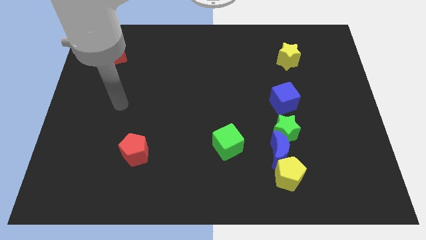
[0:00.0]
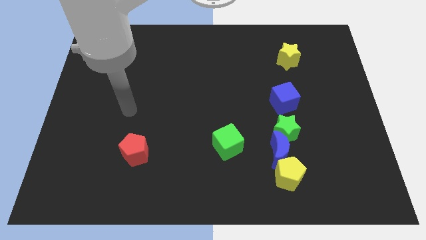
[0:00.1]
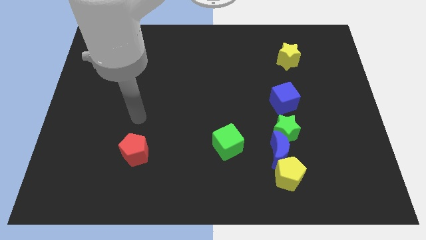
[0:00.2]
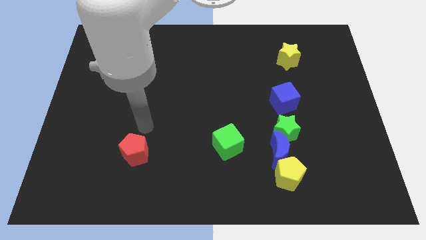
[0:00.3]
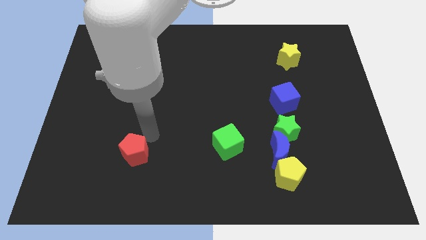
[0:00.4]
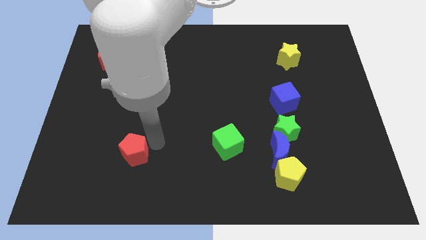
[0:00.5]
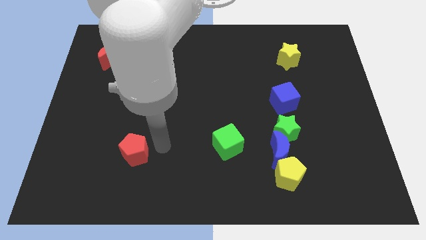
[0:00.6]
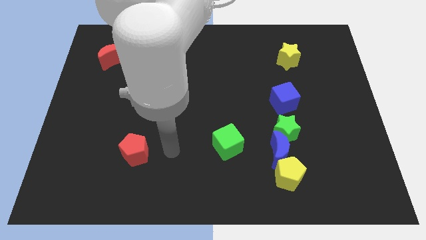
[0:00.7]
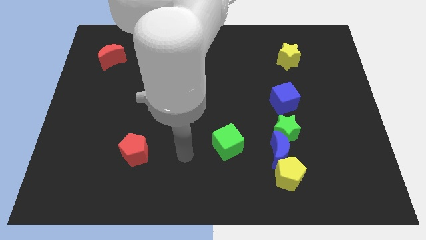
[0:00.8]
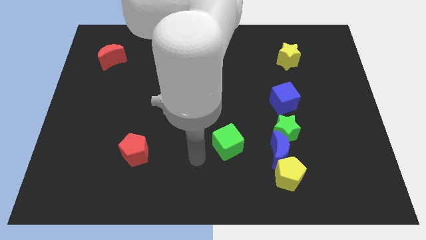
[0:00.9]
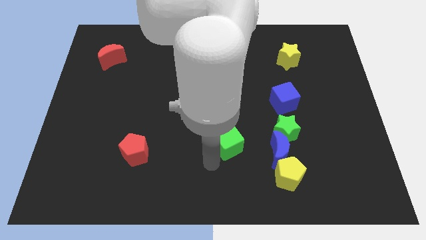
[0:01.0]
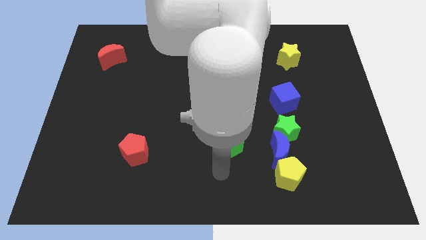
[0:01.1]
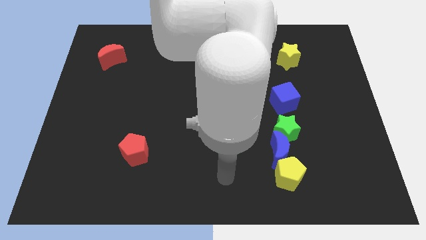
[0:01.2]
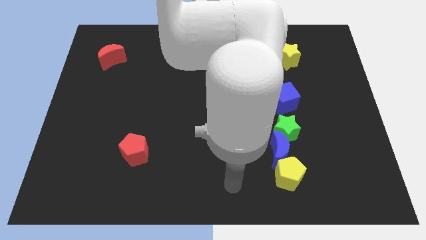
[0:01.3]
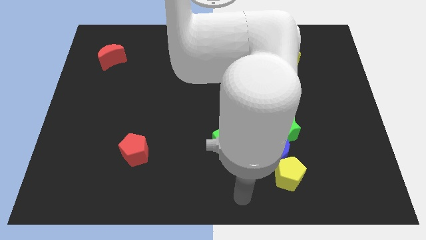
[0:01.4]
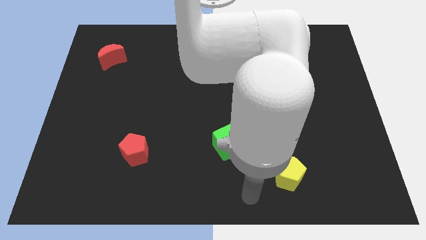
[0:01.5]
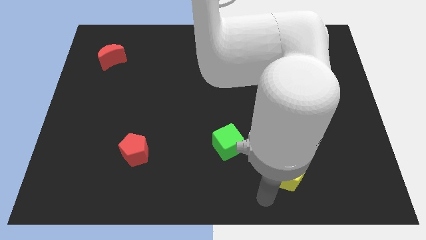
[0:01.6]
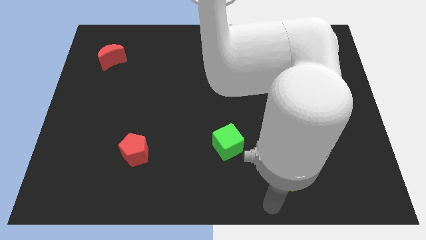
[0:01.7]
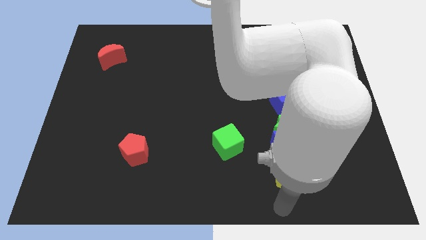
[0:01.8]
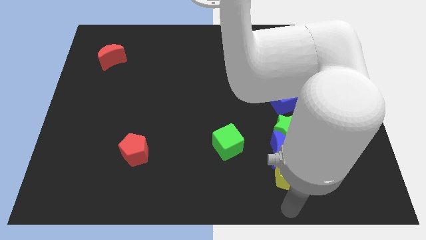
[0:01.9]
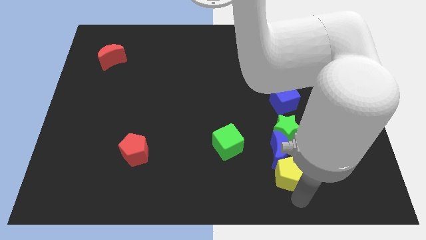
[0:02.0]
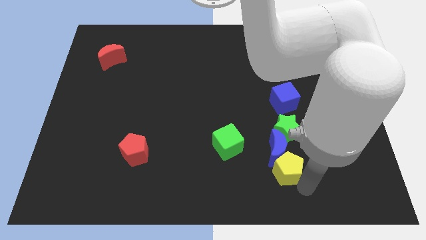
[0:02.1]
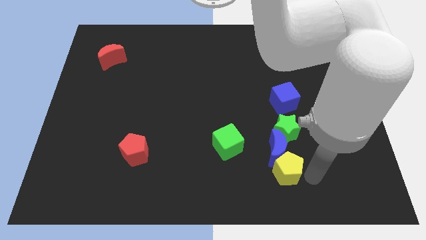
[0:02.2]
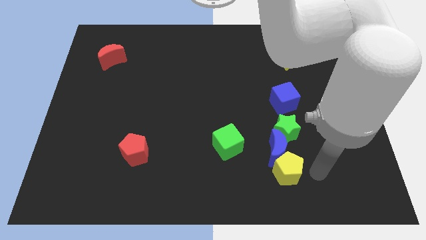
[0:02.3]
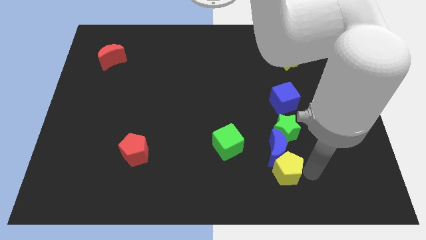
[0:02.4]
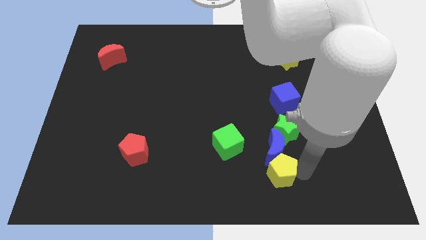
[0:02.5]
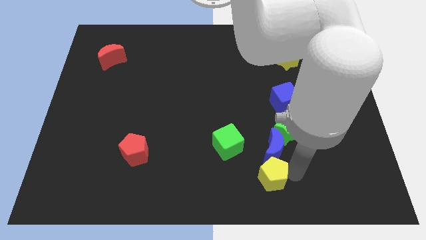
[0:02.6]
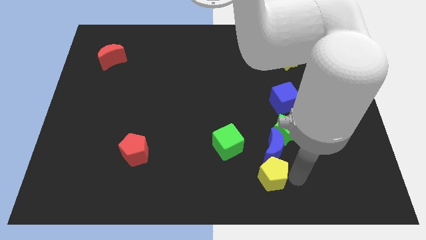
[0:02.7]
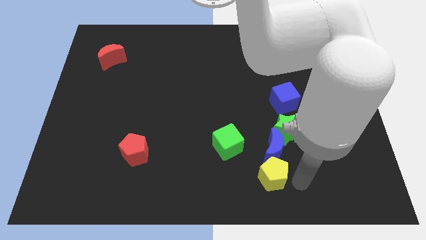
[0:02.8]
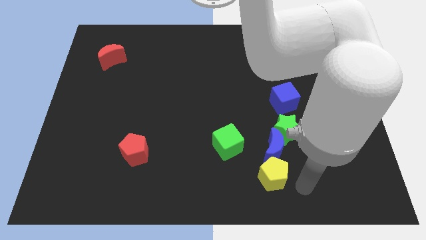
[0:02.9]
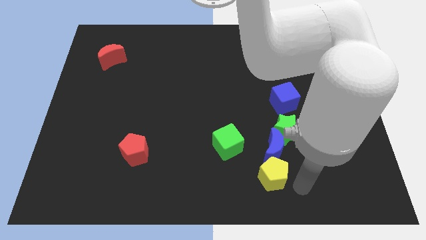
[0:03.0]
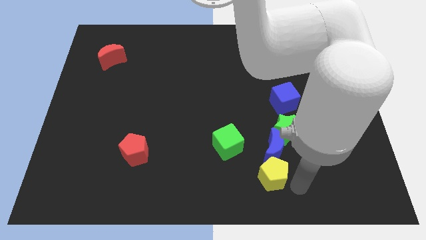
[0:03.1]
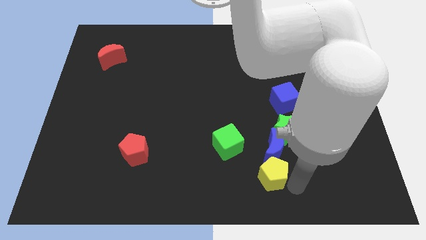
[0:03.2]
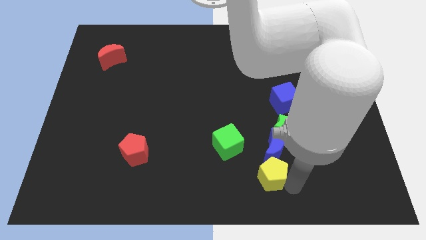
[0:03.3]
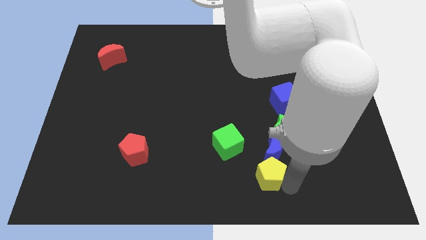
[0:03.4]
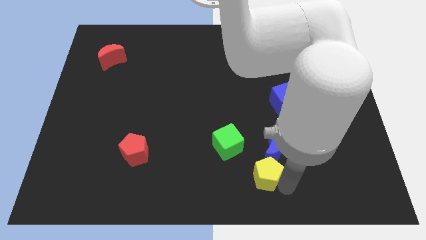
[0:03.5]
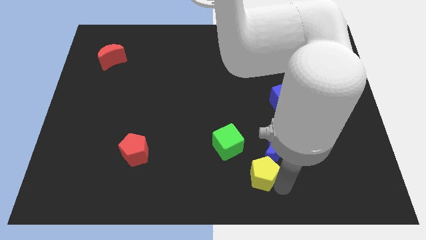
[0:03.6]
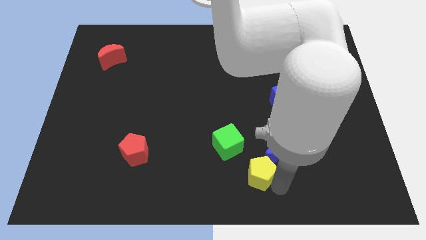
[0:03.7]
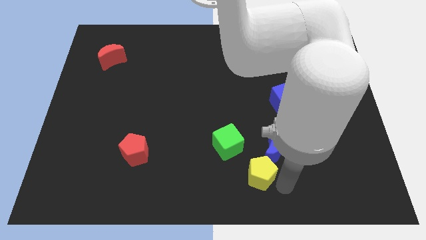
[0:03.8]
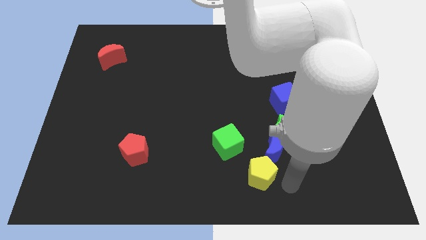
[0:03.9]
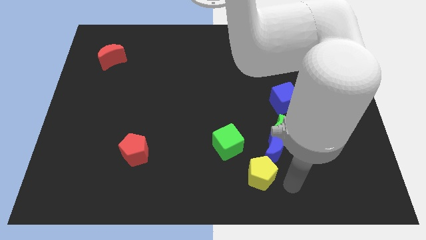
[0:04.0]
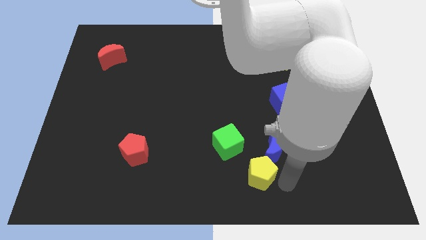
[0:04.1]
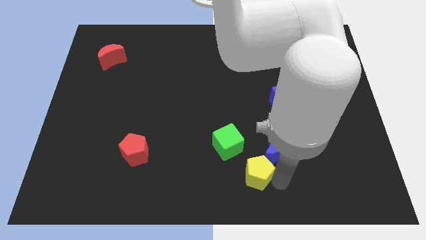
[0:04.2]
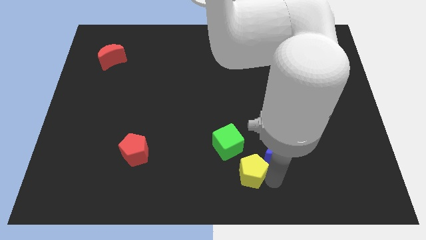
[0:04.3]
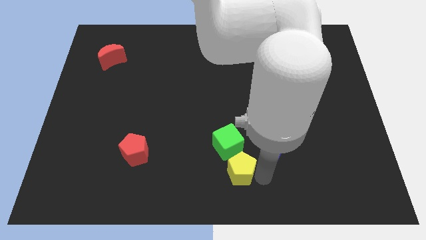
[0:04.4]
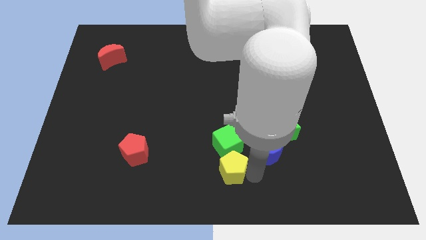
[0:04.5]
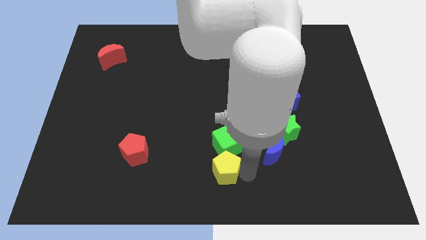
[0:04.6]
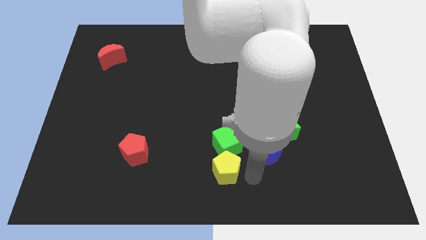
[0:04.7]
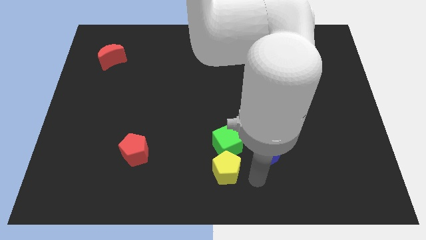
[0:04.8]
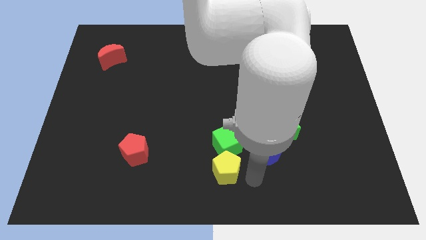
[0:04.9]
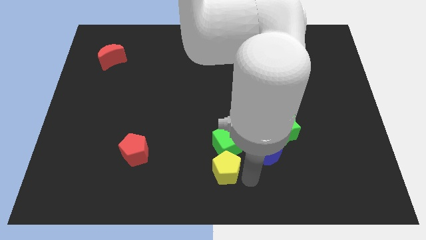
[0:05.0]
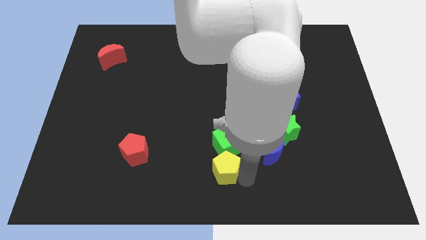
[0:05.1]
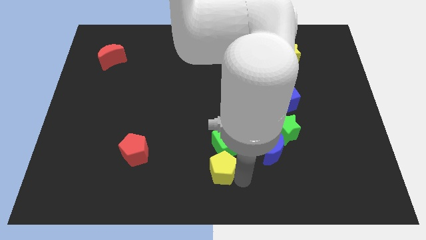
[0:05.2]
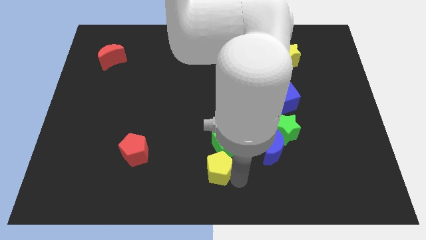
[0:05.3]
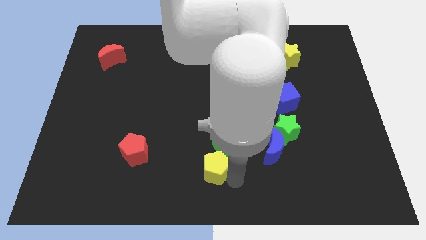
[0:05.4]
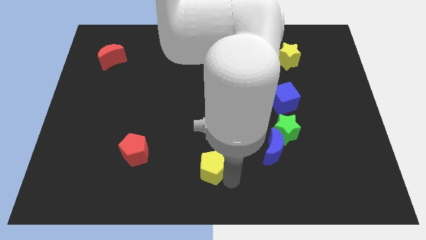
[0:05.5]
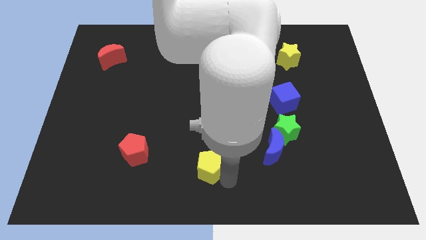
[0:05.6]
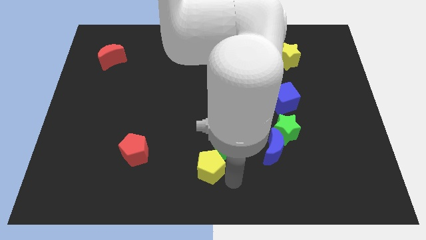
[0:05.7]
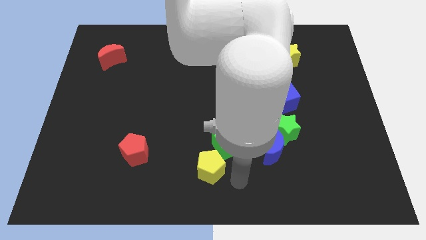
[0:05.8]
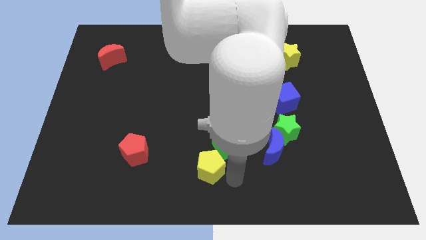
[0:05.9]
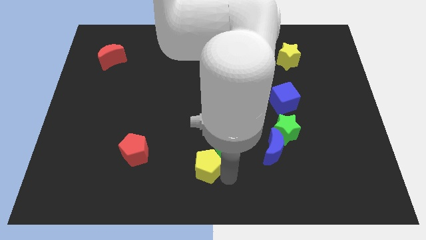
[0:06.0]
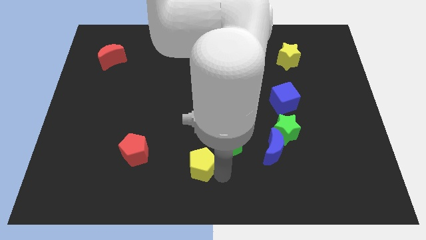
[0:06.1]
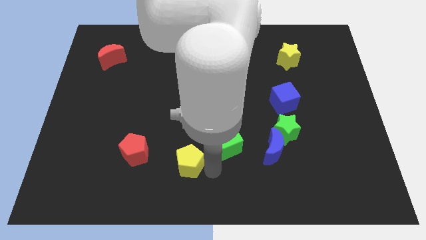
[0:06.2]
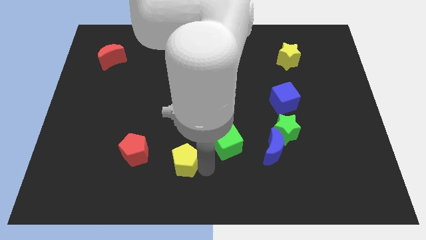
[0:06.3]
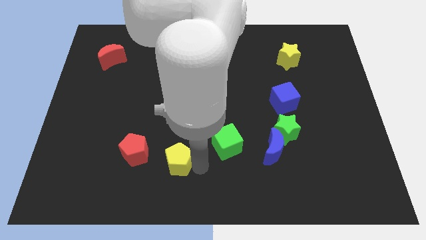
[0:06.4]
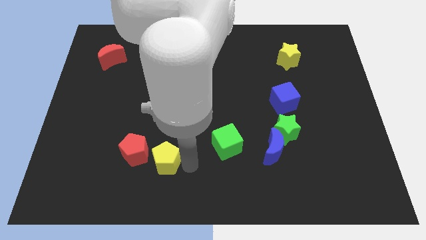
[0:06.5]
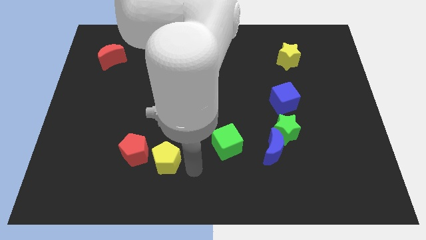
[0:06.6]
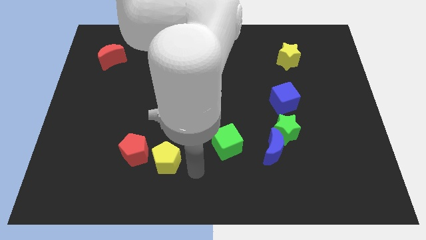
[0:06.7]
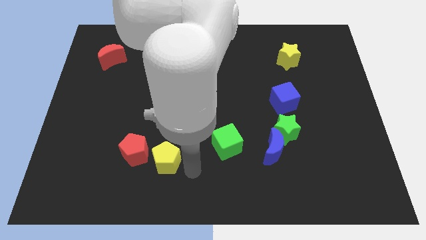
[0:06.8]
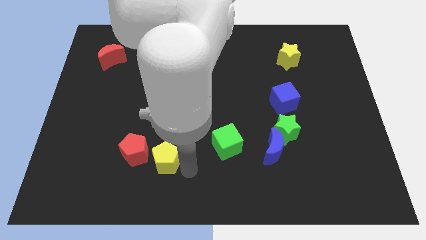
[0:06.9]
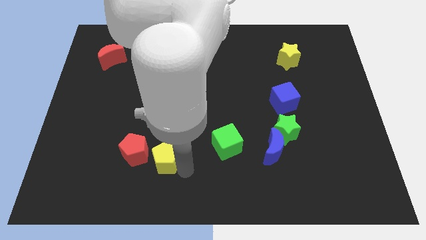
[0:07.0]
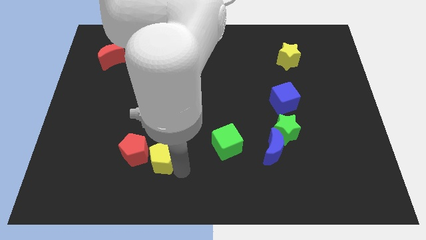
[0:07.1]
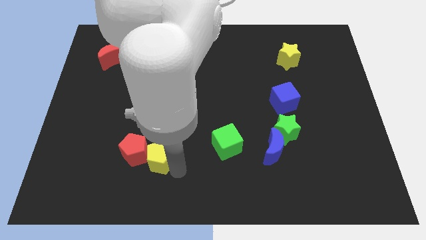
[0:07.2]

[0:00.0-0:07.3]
put the yellow pentagon close to the red pentagon

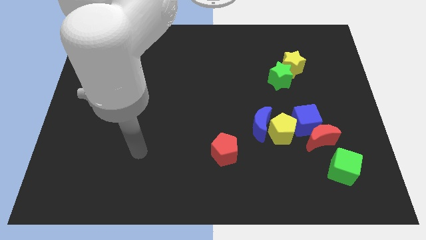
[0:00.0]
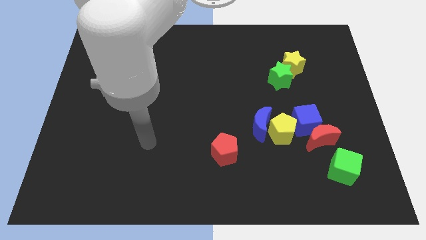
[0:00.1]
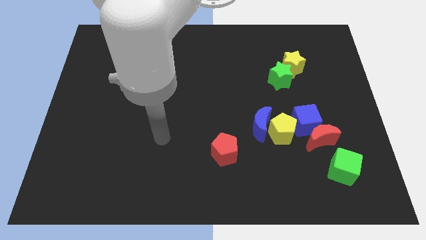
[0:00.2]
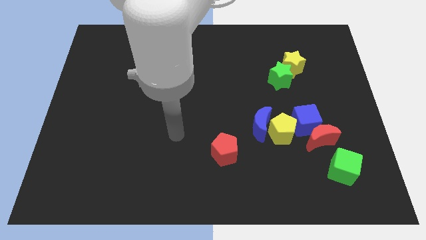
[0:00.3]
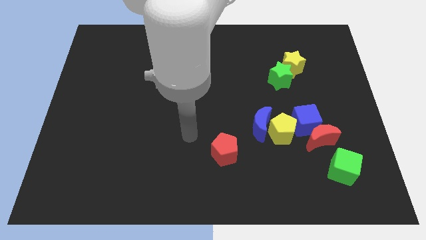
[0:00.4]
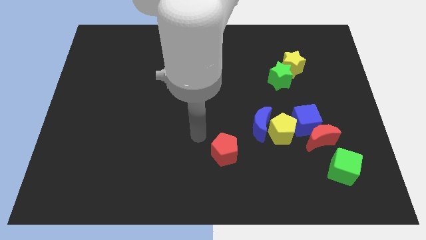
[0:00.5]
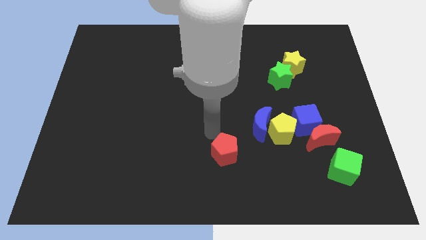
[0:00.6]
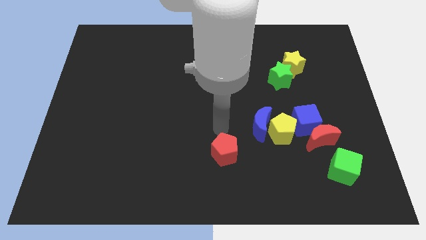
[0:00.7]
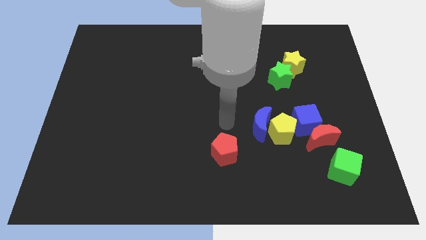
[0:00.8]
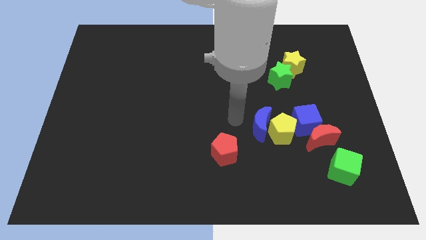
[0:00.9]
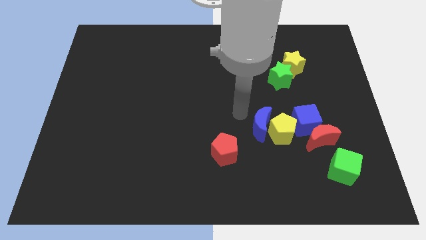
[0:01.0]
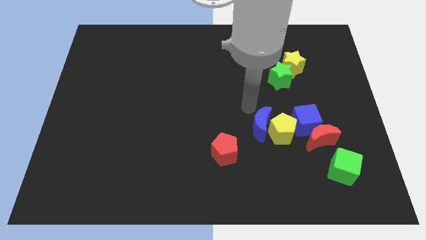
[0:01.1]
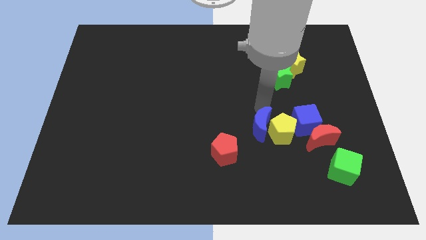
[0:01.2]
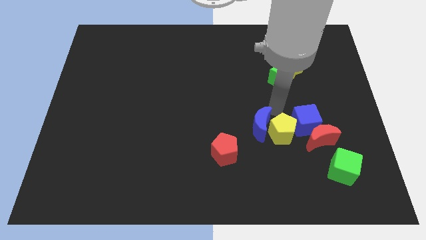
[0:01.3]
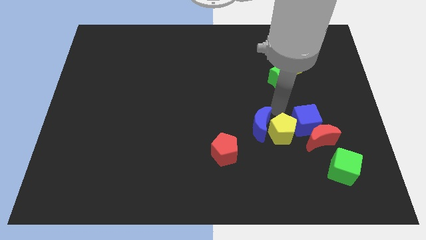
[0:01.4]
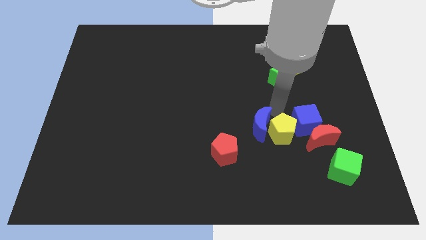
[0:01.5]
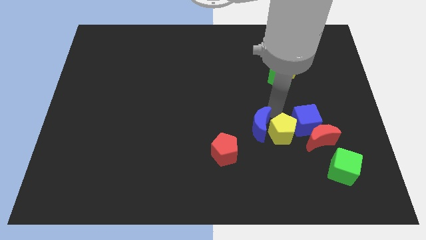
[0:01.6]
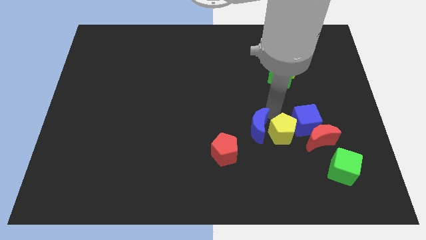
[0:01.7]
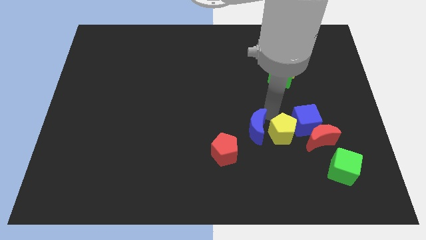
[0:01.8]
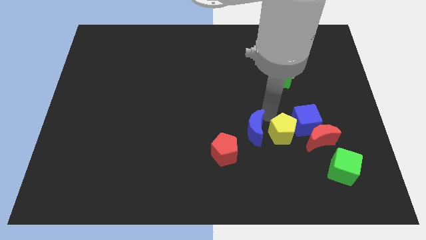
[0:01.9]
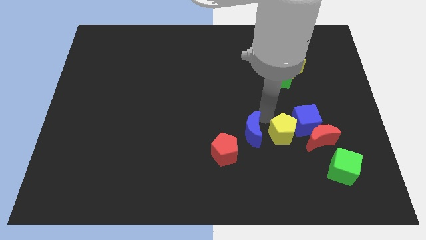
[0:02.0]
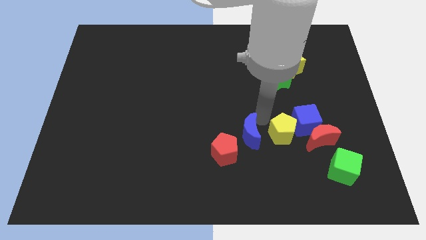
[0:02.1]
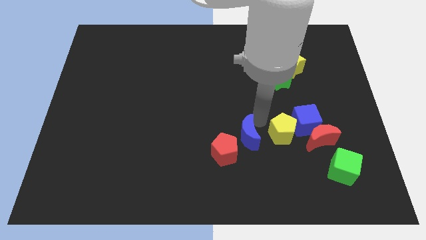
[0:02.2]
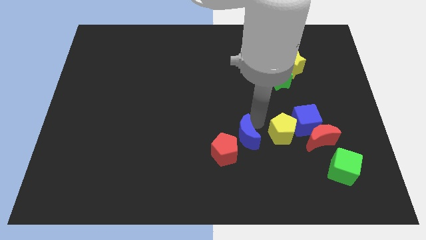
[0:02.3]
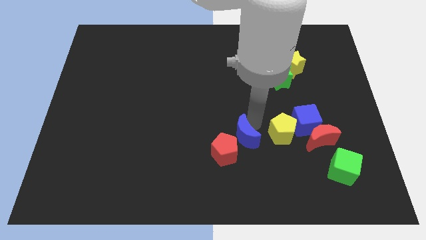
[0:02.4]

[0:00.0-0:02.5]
move the blue moon towards the red pentagon
